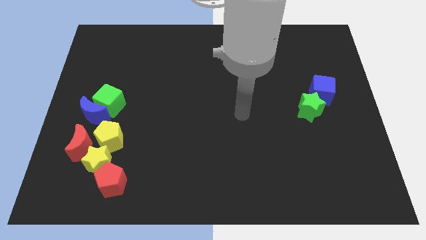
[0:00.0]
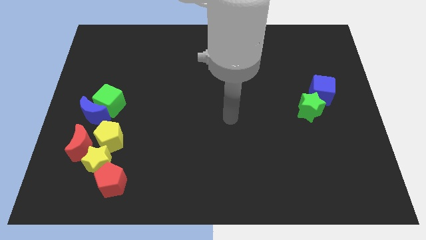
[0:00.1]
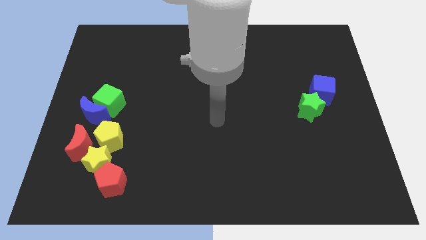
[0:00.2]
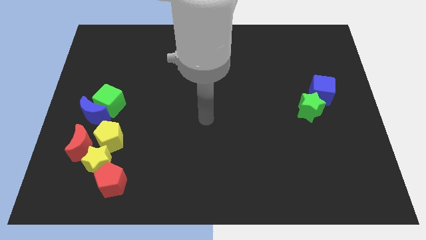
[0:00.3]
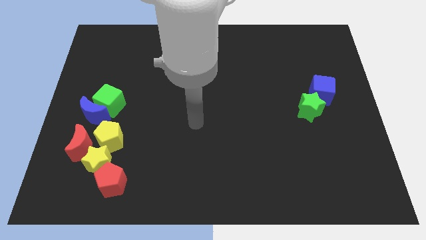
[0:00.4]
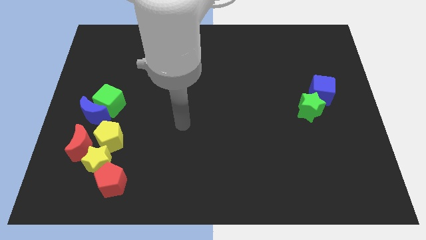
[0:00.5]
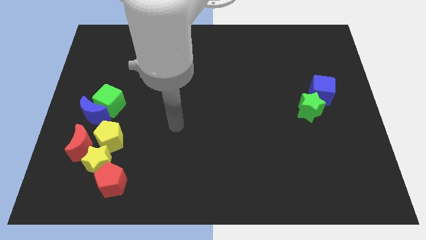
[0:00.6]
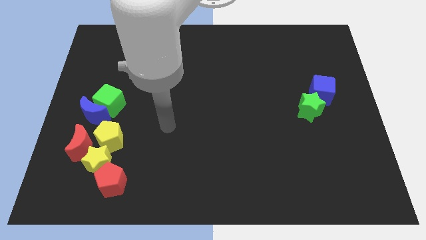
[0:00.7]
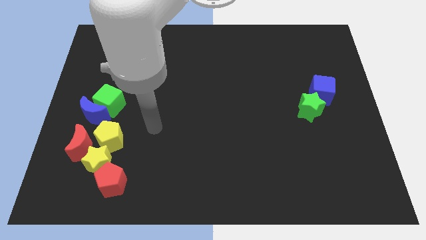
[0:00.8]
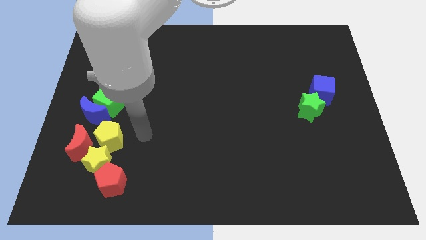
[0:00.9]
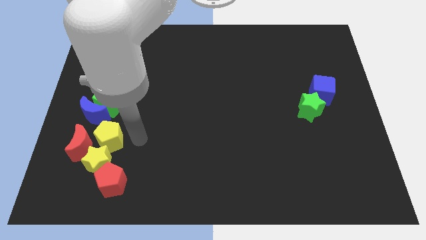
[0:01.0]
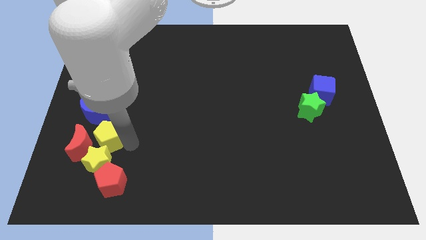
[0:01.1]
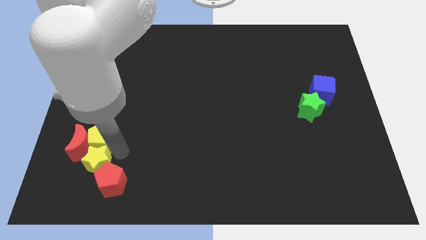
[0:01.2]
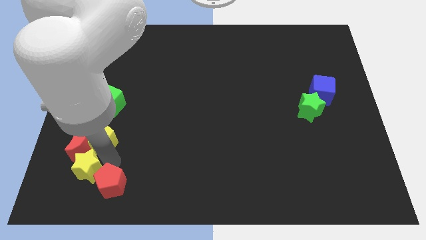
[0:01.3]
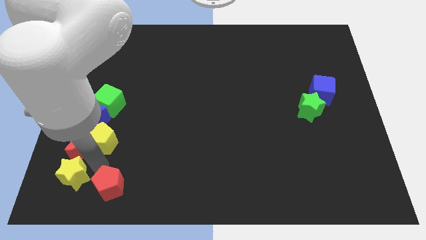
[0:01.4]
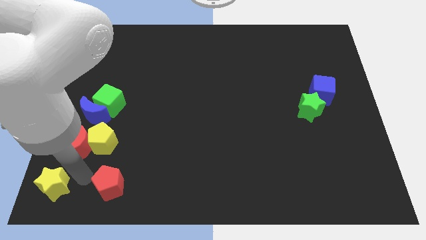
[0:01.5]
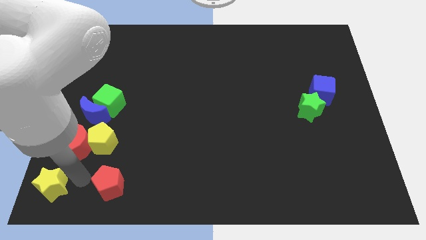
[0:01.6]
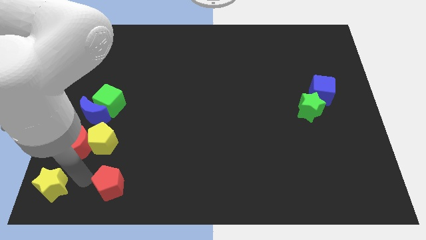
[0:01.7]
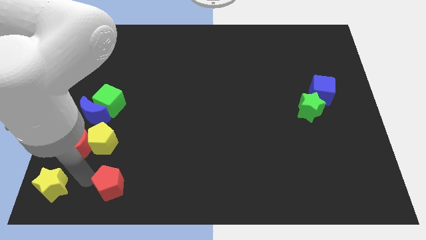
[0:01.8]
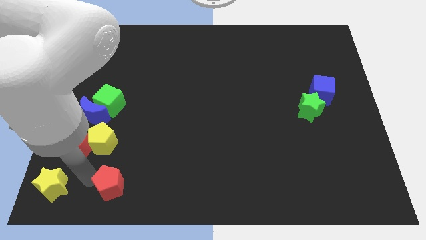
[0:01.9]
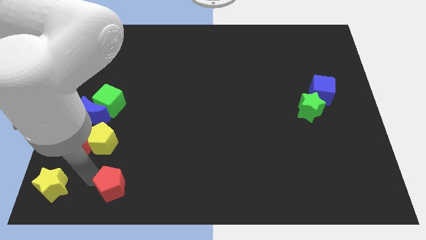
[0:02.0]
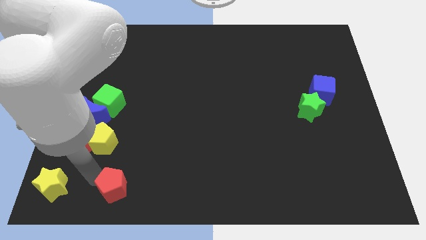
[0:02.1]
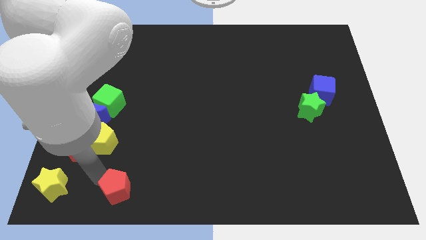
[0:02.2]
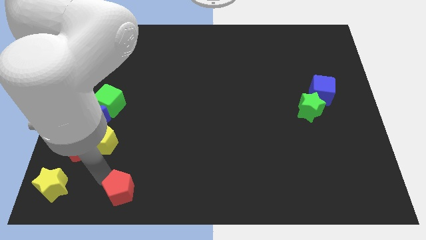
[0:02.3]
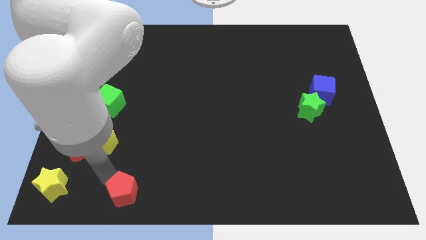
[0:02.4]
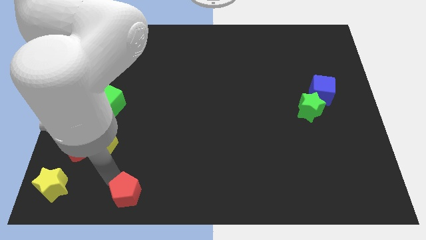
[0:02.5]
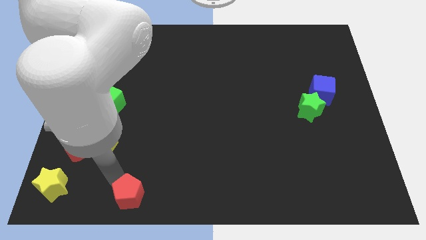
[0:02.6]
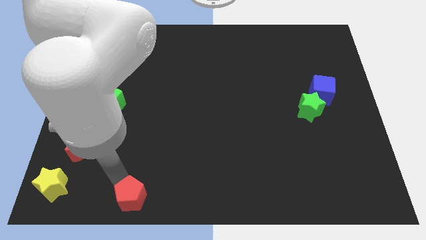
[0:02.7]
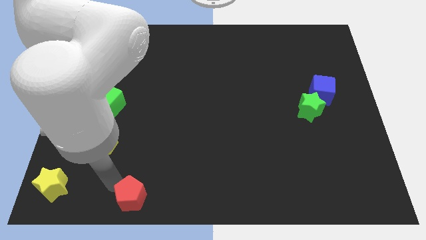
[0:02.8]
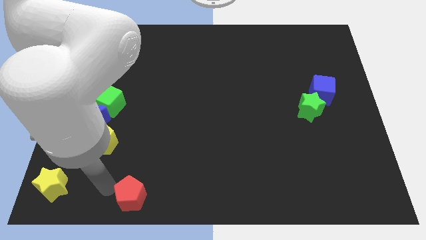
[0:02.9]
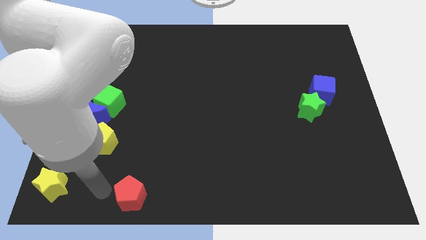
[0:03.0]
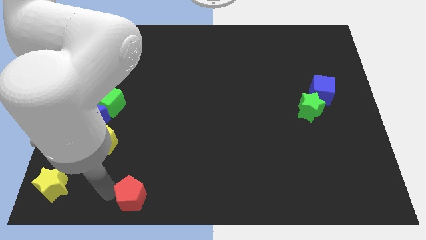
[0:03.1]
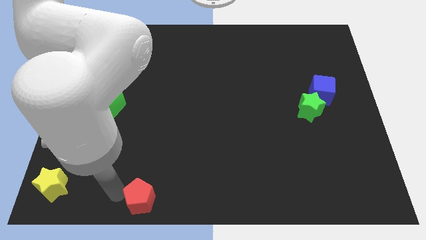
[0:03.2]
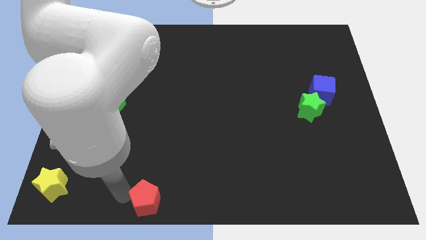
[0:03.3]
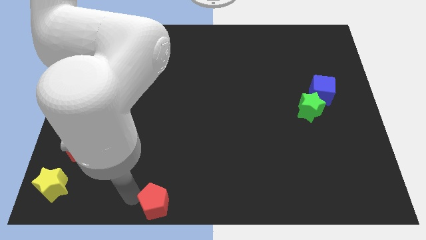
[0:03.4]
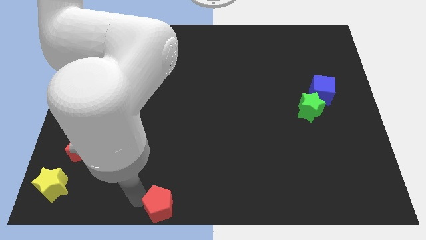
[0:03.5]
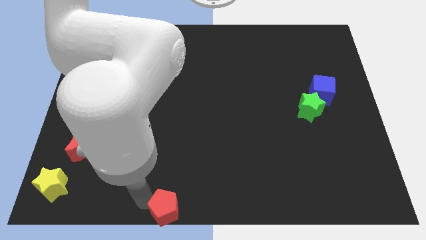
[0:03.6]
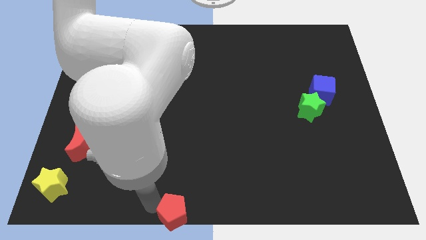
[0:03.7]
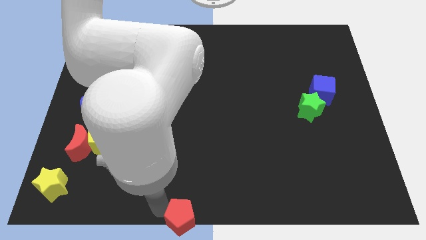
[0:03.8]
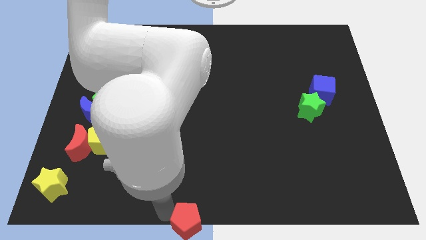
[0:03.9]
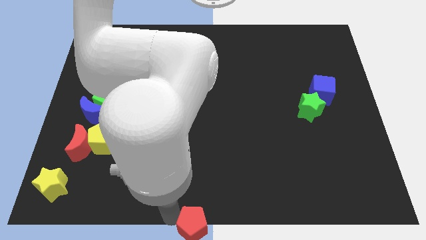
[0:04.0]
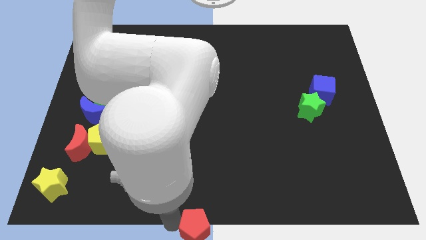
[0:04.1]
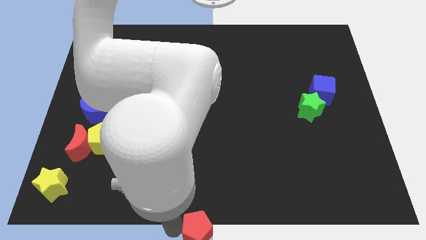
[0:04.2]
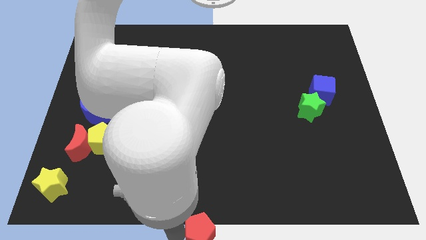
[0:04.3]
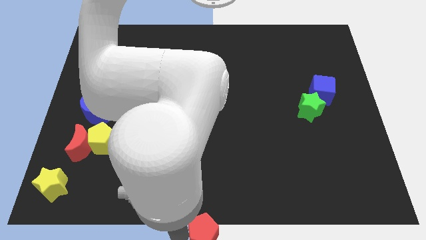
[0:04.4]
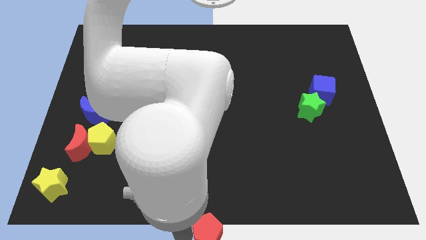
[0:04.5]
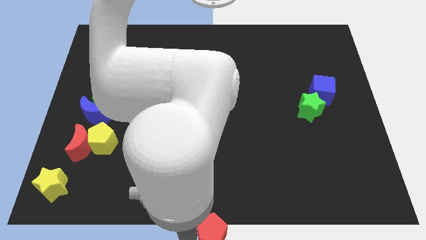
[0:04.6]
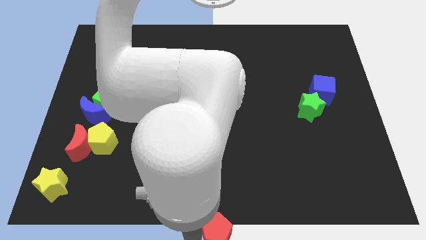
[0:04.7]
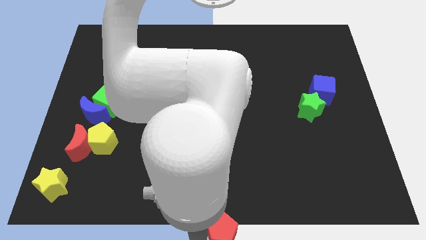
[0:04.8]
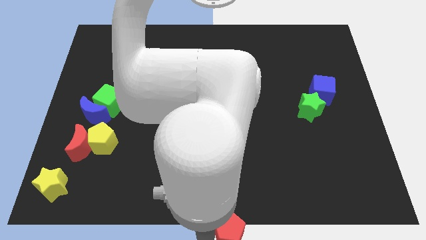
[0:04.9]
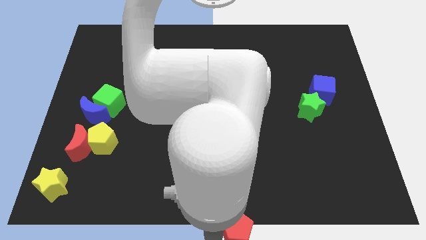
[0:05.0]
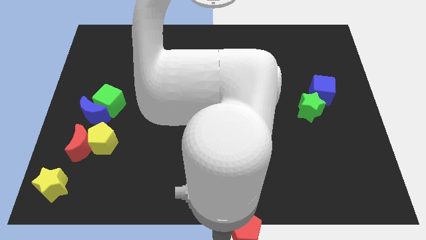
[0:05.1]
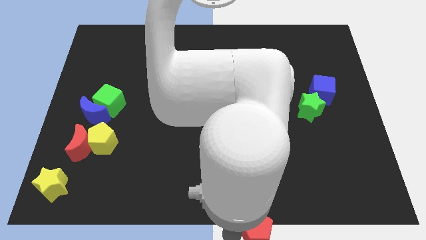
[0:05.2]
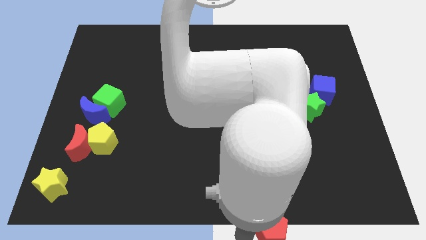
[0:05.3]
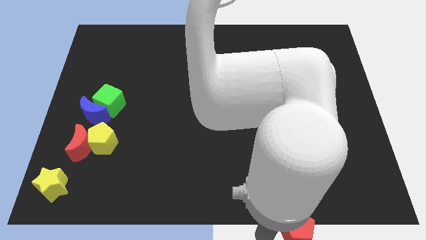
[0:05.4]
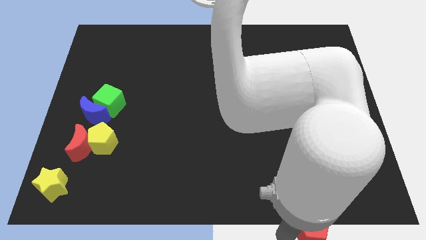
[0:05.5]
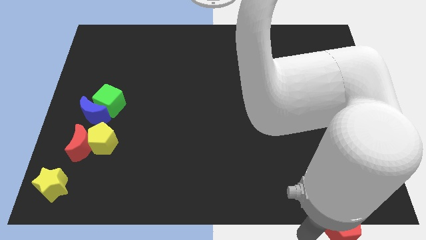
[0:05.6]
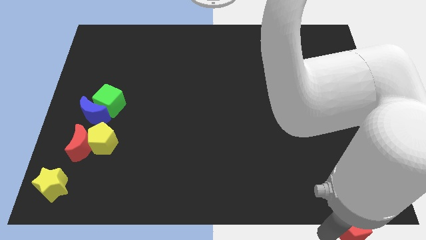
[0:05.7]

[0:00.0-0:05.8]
move the red pentagon to the lower right corner
